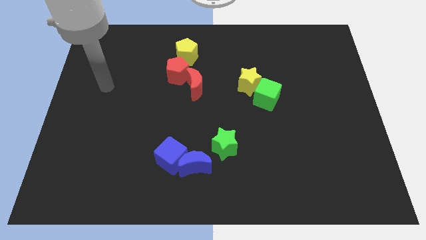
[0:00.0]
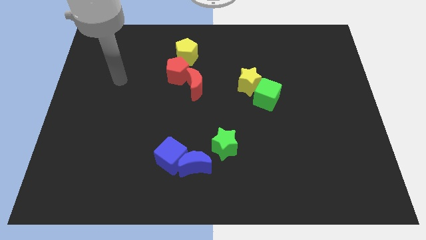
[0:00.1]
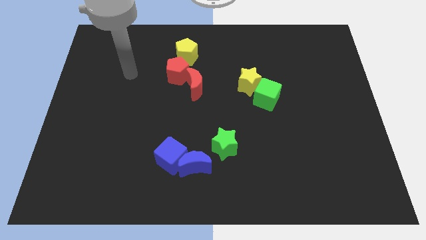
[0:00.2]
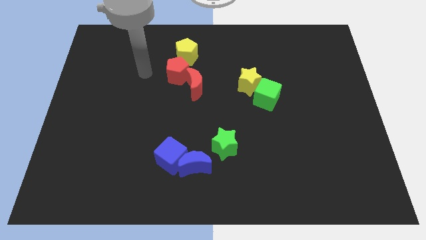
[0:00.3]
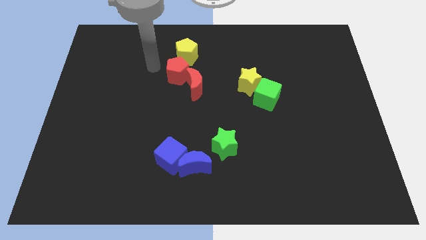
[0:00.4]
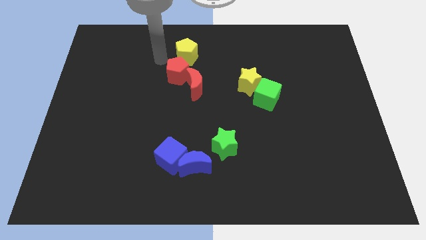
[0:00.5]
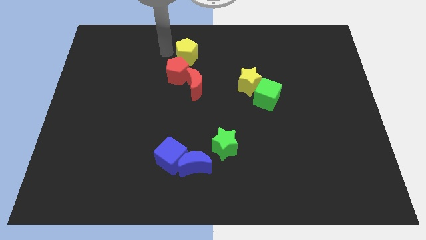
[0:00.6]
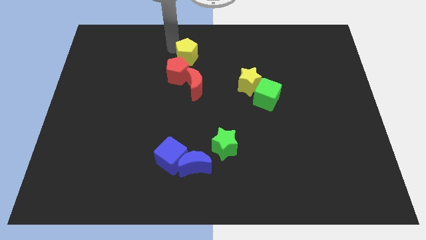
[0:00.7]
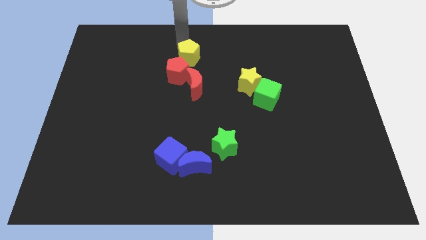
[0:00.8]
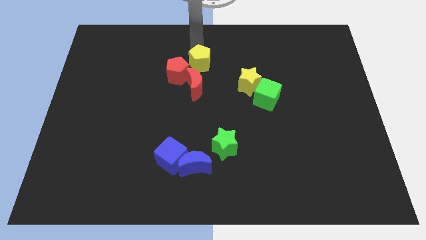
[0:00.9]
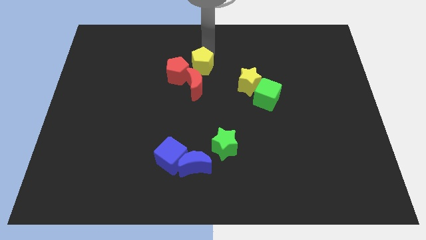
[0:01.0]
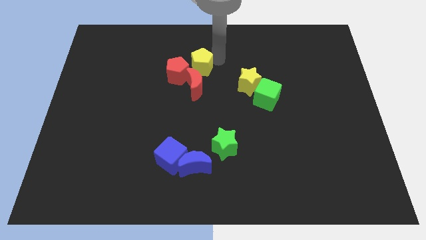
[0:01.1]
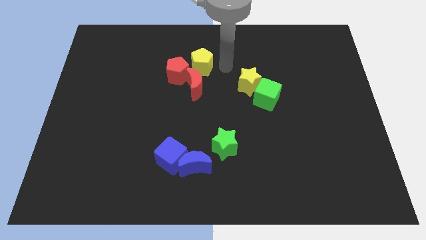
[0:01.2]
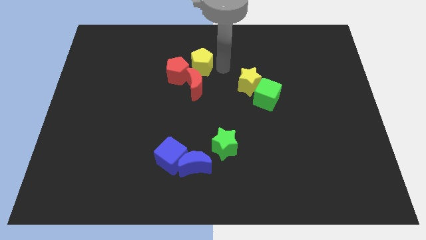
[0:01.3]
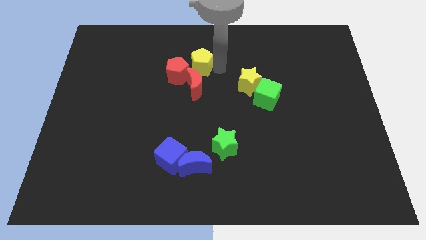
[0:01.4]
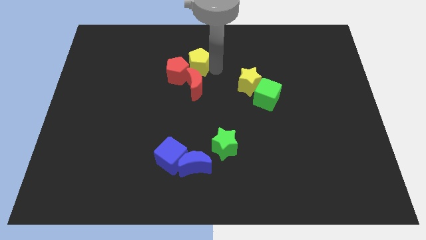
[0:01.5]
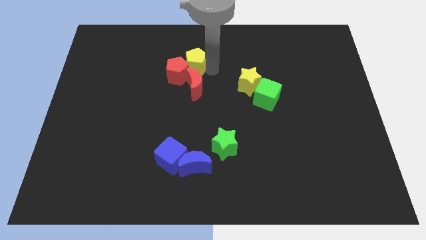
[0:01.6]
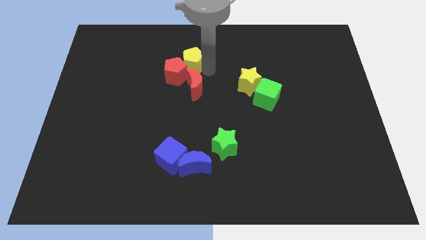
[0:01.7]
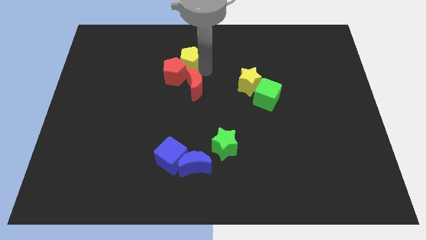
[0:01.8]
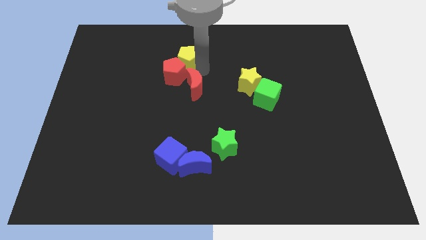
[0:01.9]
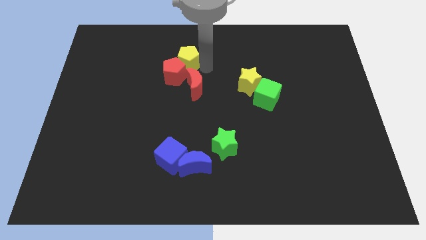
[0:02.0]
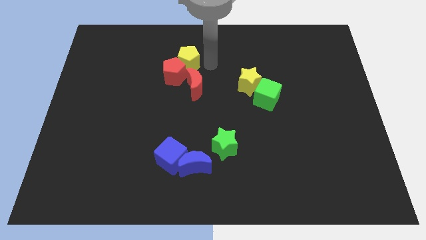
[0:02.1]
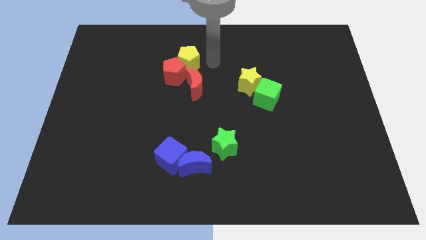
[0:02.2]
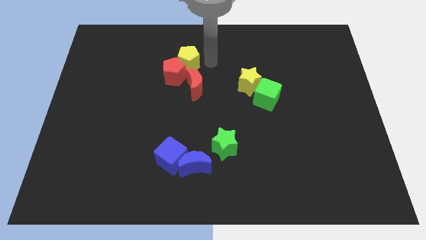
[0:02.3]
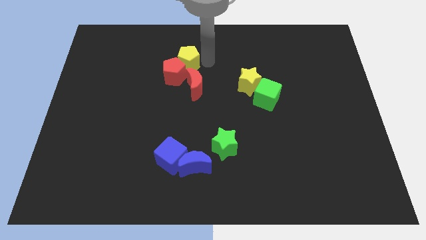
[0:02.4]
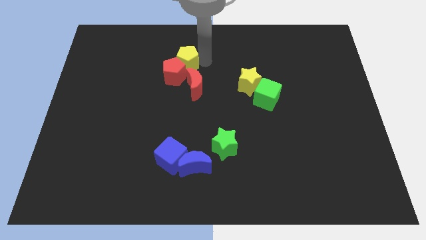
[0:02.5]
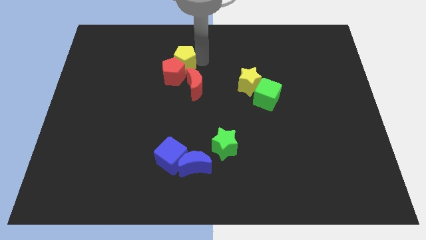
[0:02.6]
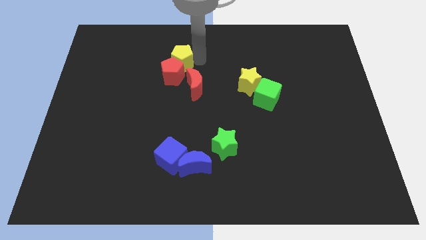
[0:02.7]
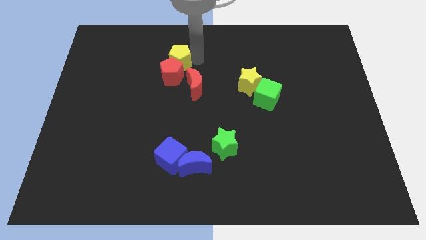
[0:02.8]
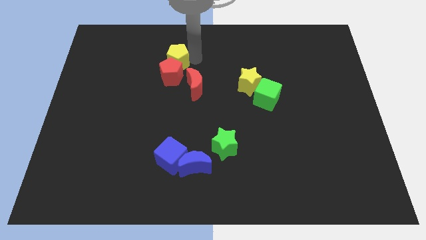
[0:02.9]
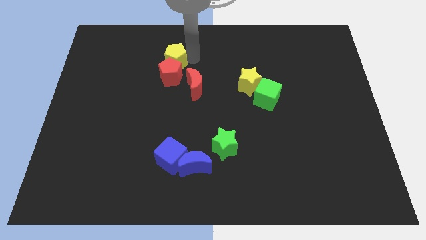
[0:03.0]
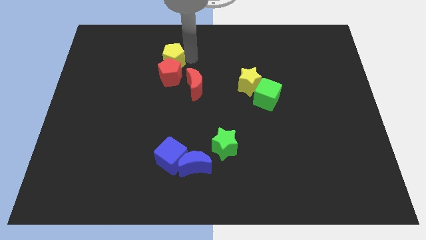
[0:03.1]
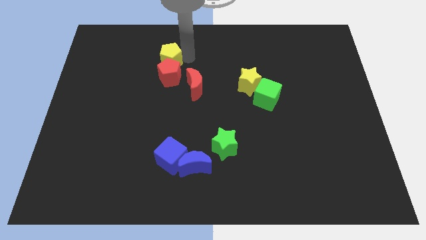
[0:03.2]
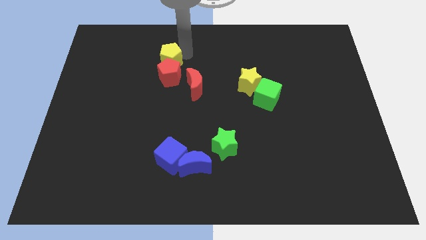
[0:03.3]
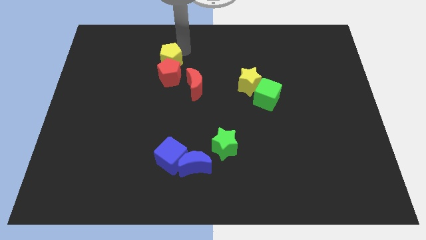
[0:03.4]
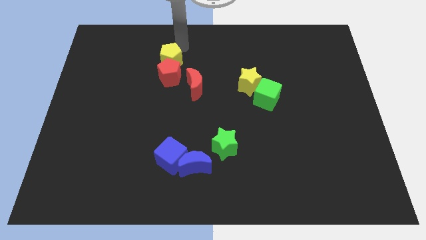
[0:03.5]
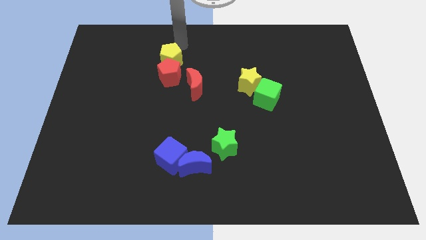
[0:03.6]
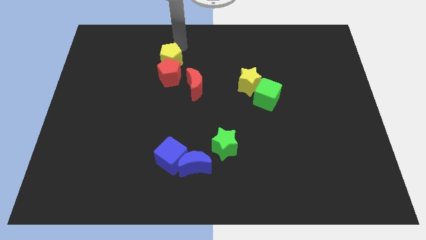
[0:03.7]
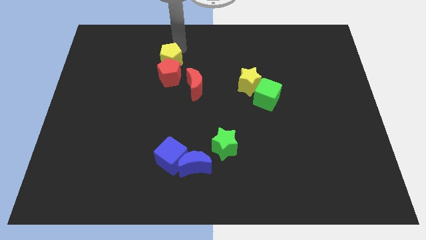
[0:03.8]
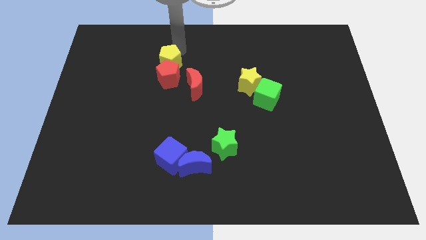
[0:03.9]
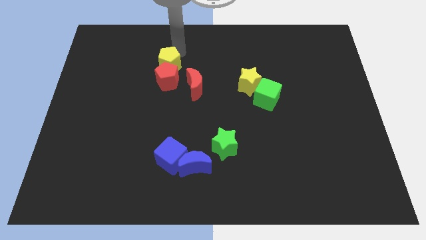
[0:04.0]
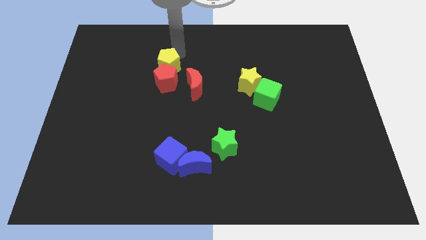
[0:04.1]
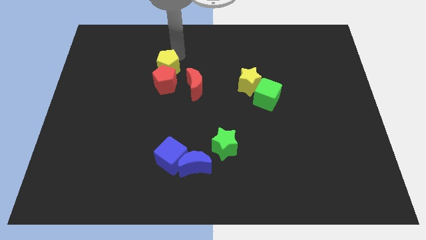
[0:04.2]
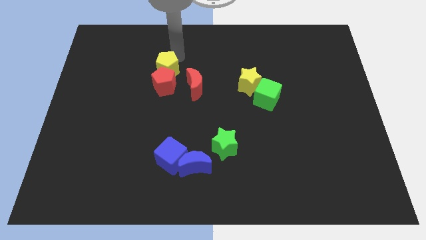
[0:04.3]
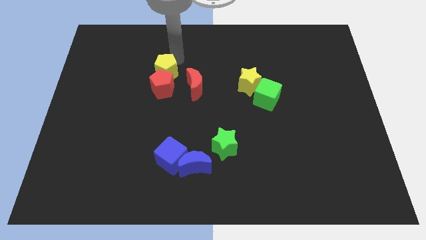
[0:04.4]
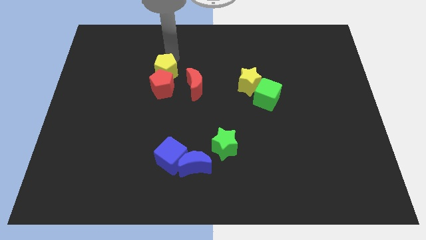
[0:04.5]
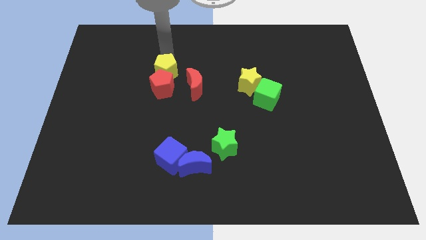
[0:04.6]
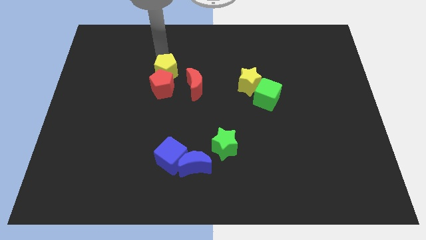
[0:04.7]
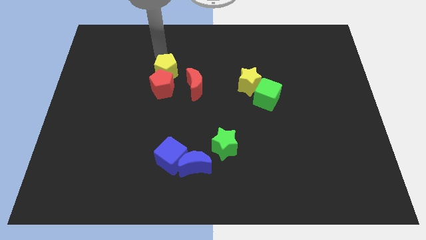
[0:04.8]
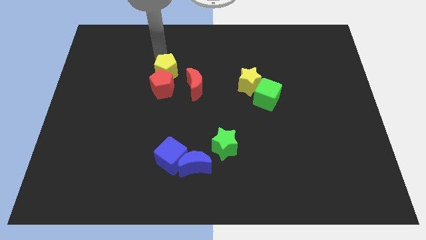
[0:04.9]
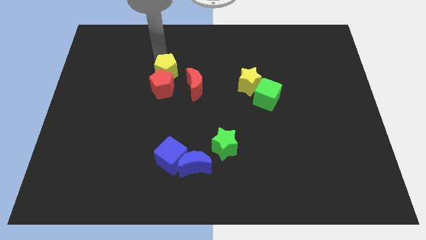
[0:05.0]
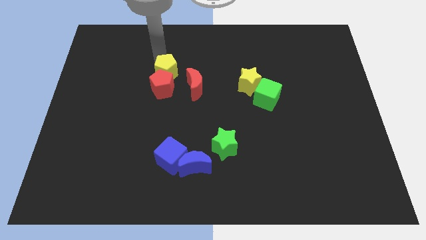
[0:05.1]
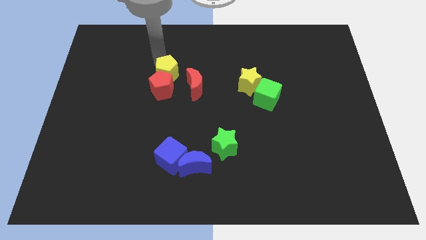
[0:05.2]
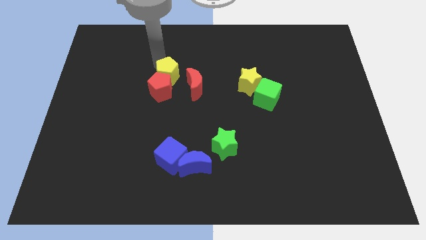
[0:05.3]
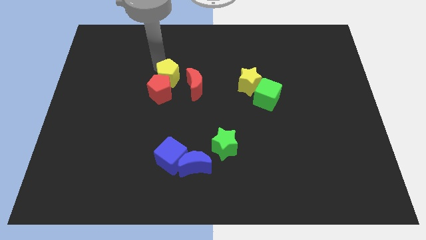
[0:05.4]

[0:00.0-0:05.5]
move the yellow pentagon down somewhat

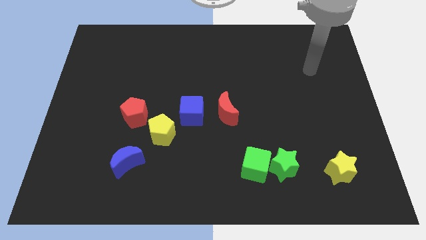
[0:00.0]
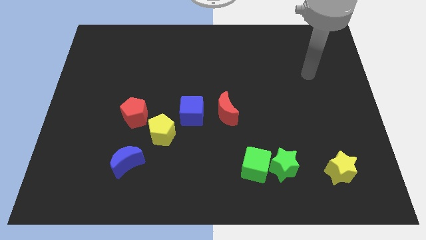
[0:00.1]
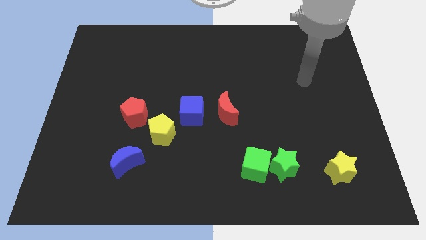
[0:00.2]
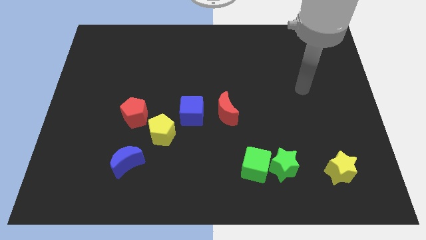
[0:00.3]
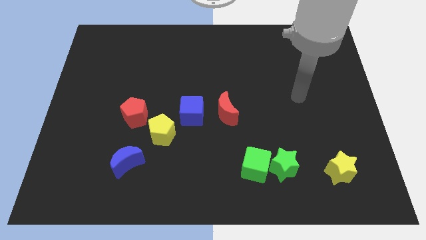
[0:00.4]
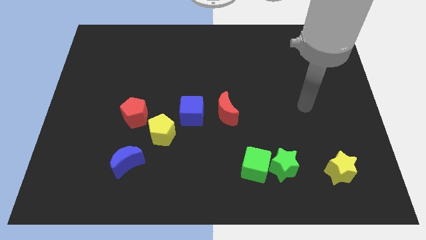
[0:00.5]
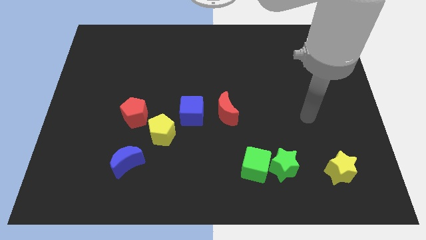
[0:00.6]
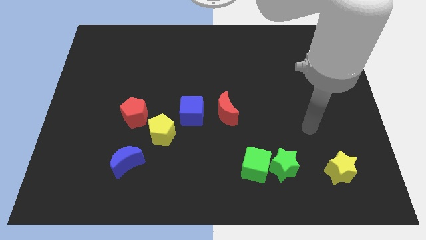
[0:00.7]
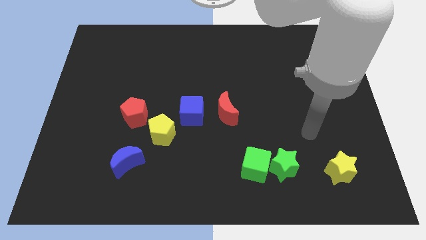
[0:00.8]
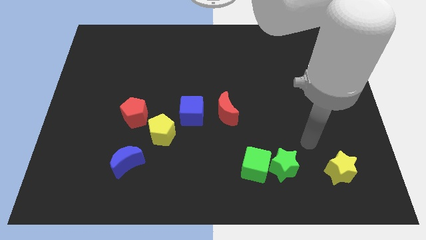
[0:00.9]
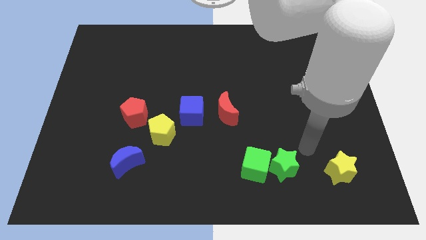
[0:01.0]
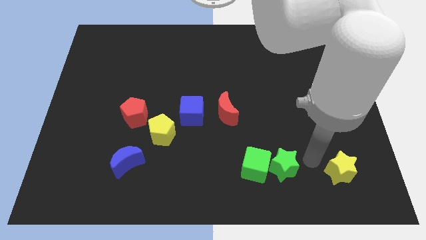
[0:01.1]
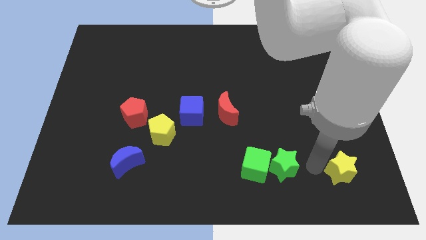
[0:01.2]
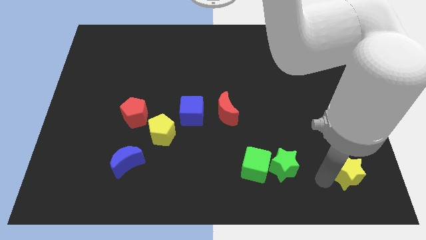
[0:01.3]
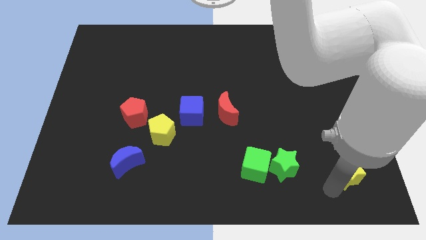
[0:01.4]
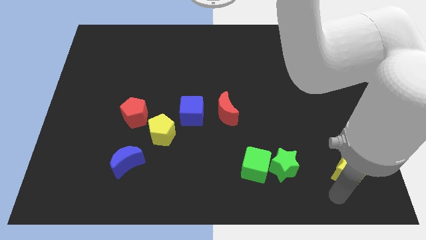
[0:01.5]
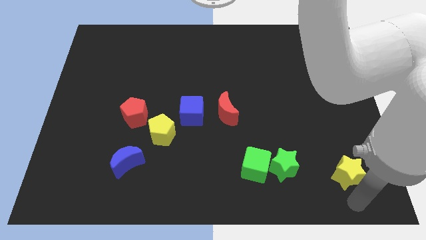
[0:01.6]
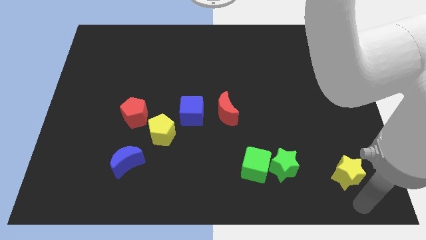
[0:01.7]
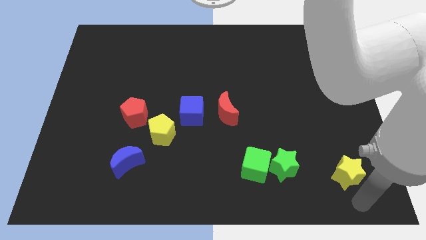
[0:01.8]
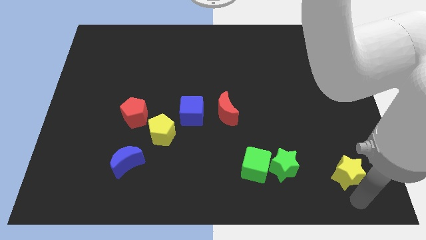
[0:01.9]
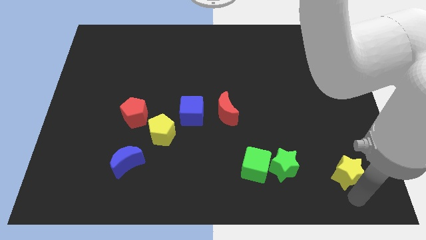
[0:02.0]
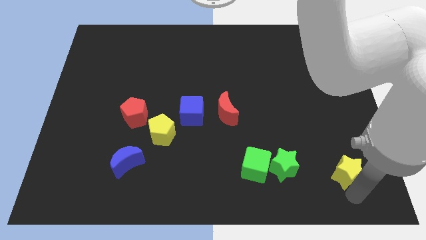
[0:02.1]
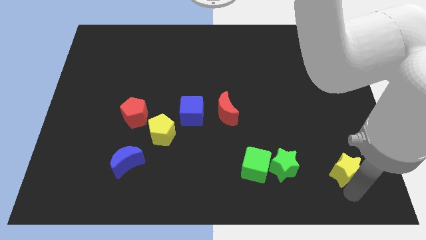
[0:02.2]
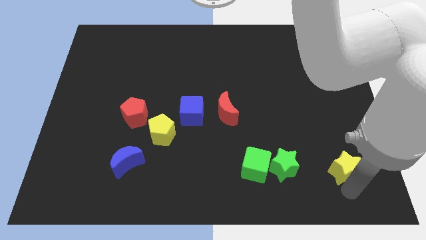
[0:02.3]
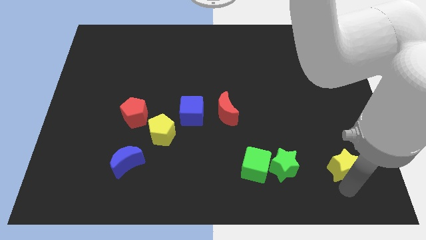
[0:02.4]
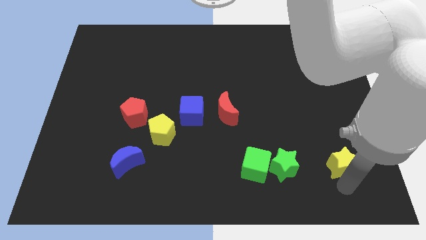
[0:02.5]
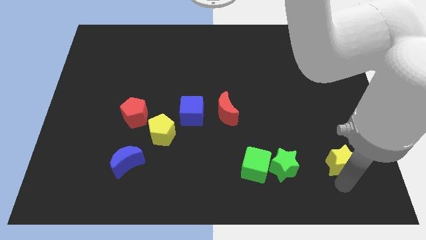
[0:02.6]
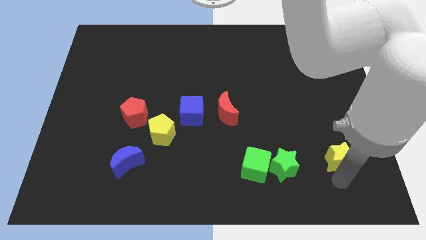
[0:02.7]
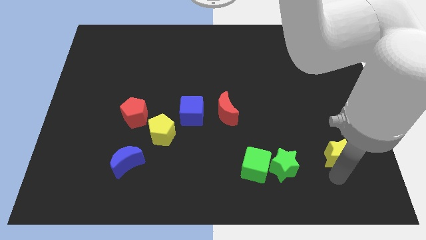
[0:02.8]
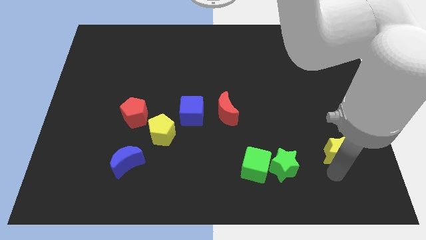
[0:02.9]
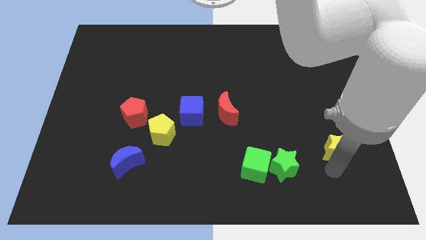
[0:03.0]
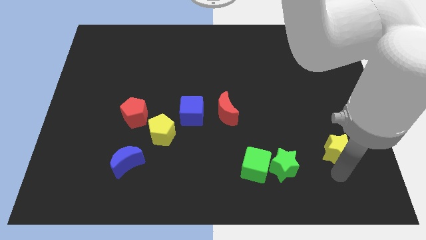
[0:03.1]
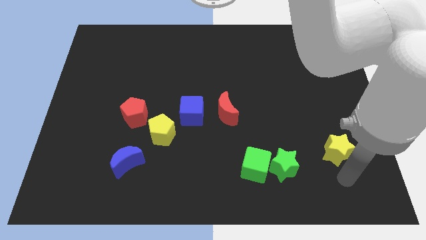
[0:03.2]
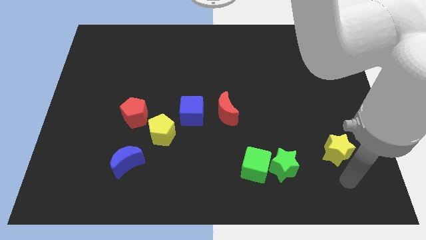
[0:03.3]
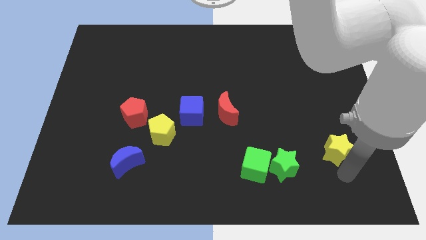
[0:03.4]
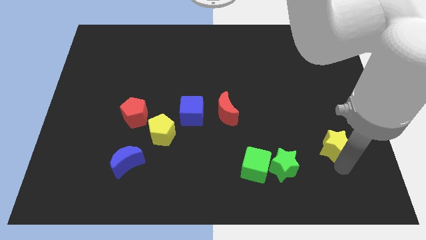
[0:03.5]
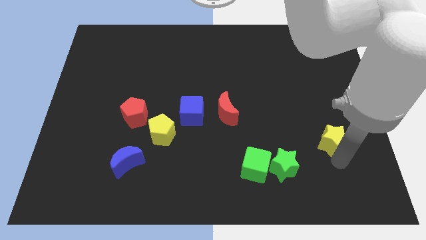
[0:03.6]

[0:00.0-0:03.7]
push the yellow star up somewhat
